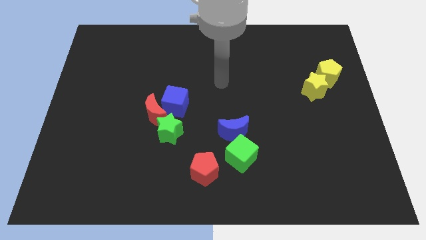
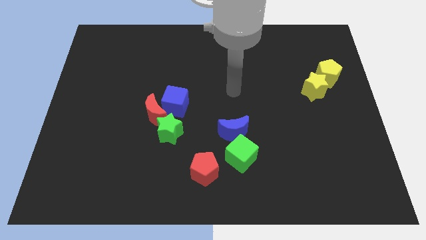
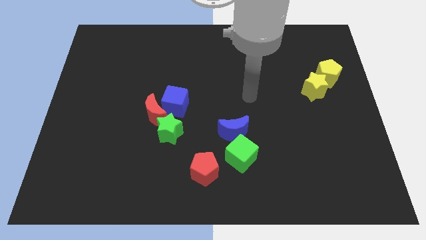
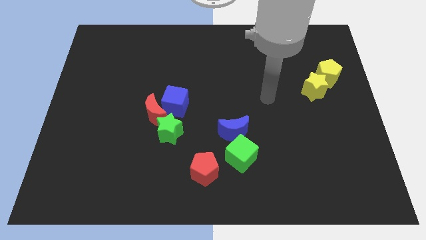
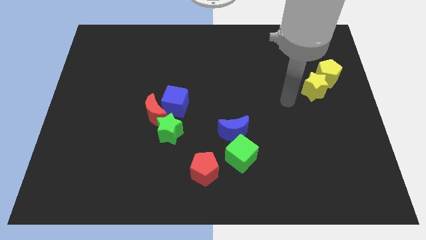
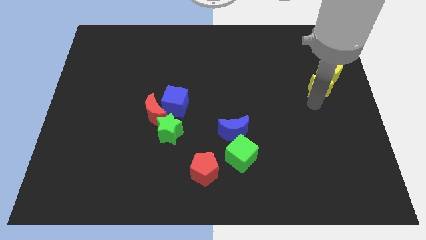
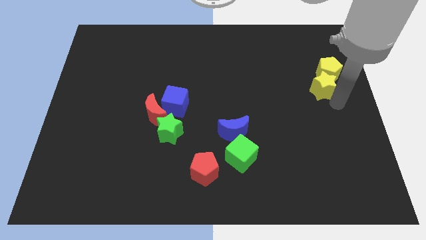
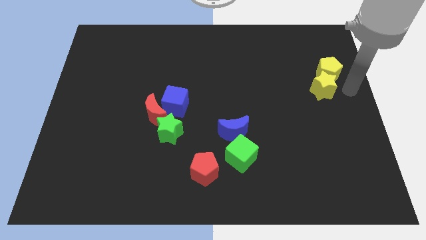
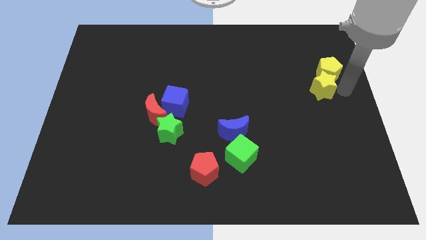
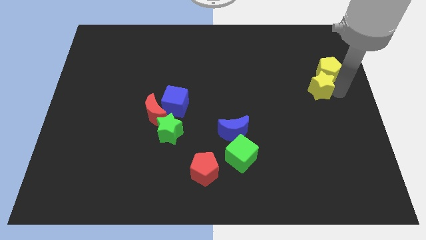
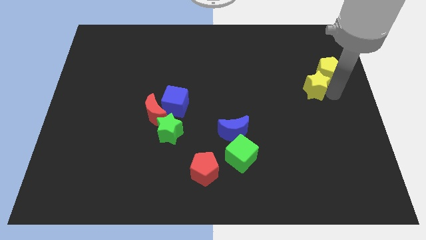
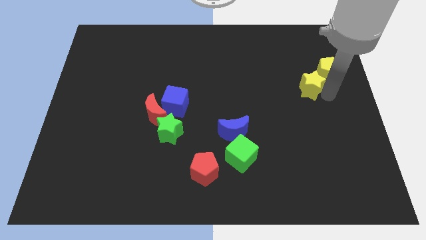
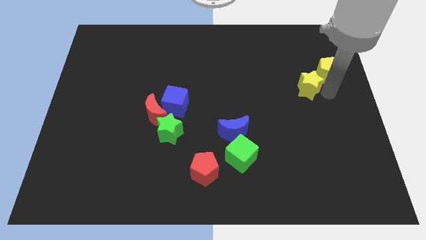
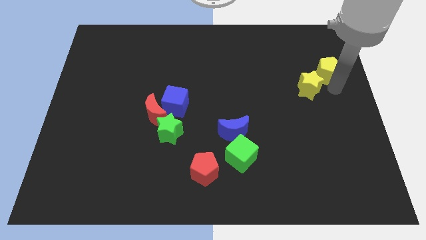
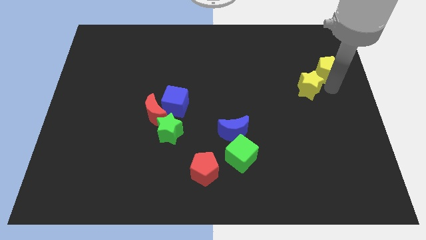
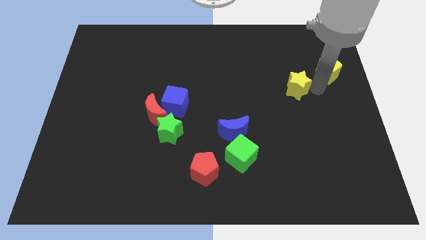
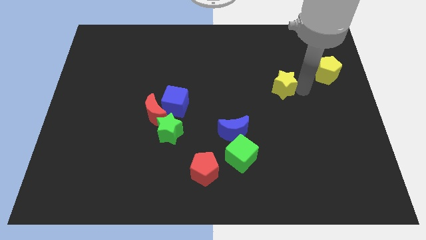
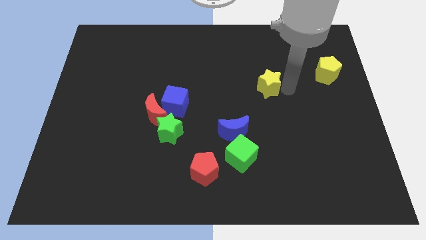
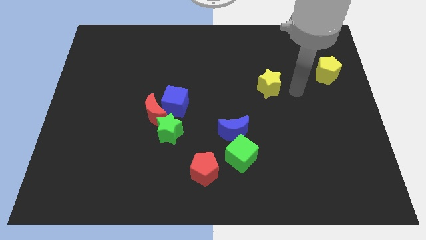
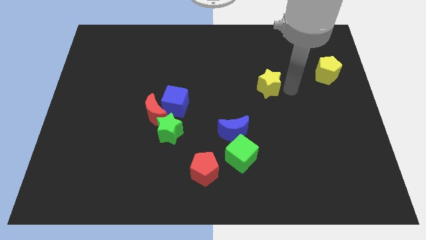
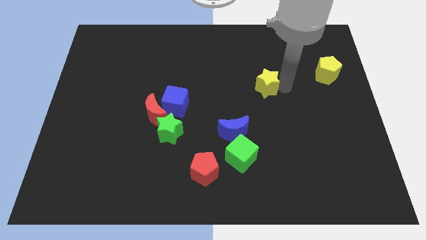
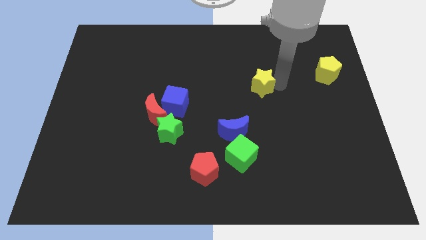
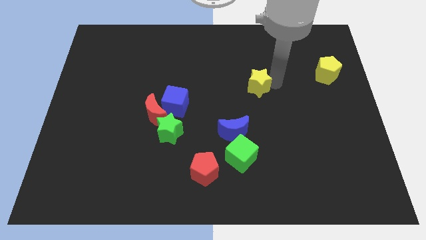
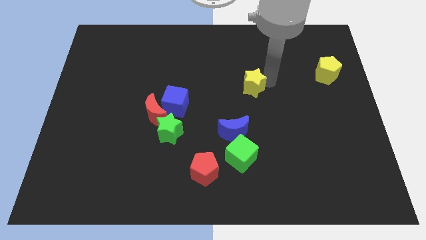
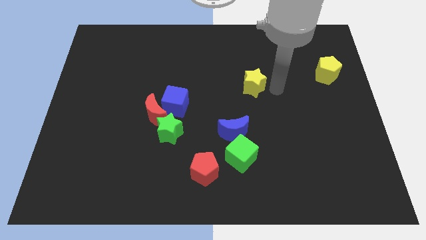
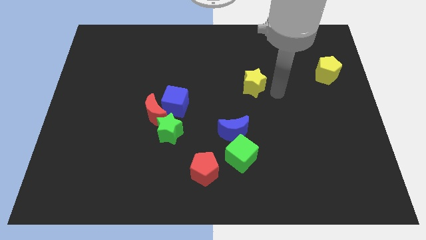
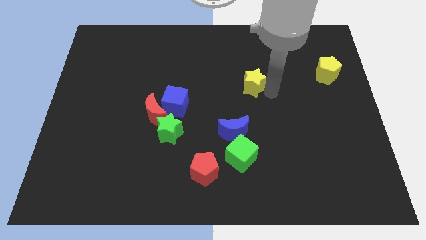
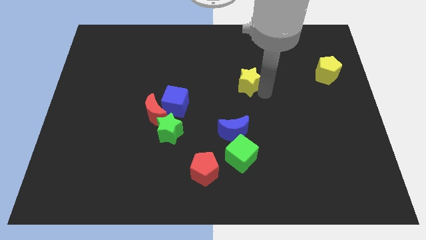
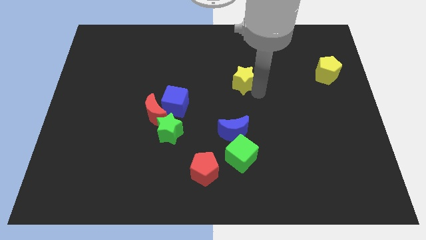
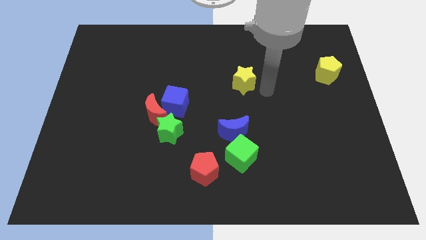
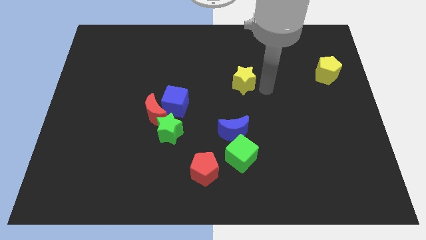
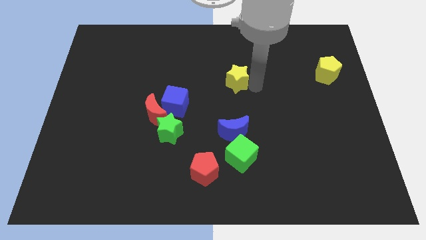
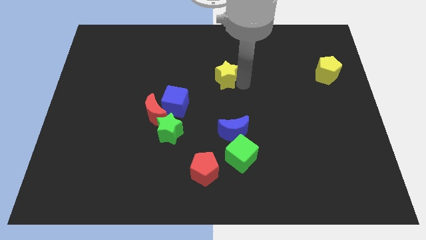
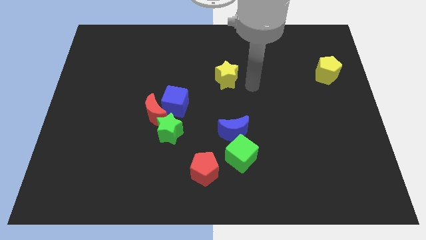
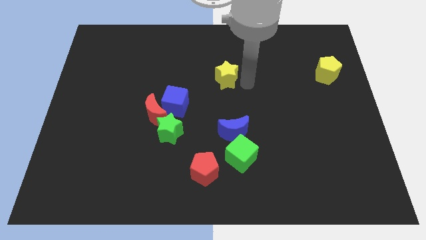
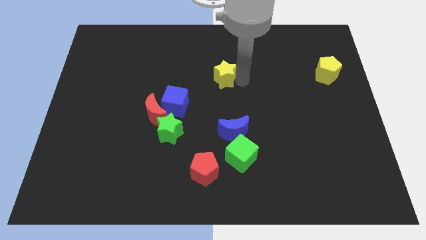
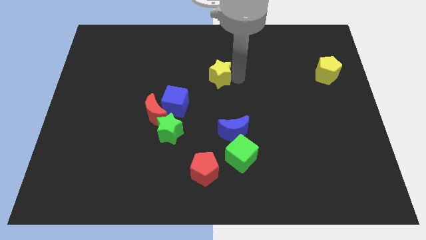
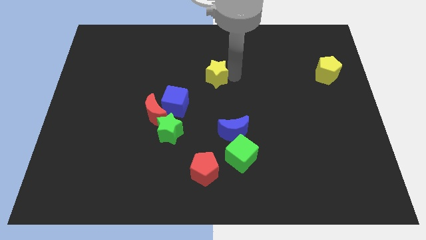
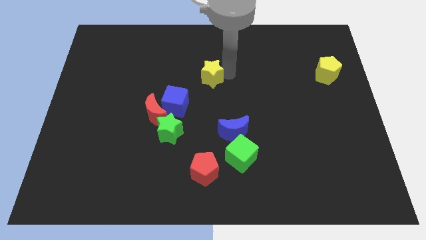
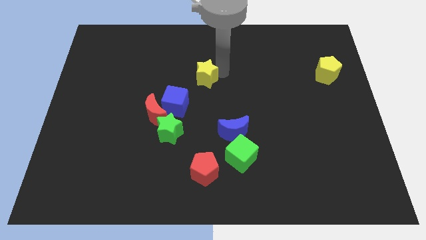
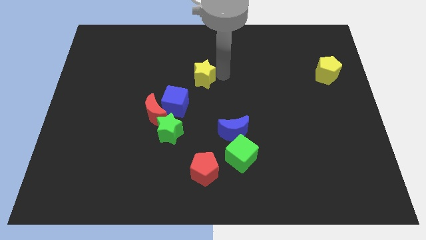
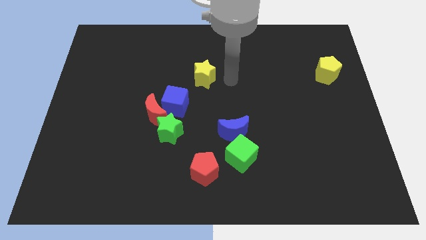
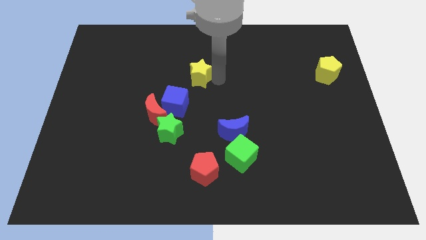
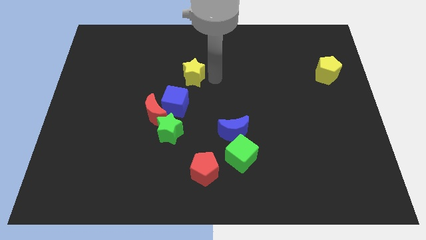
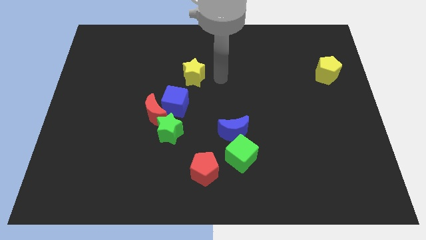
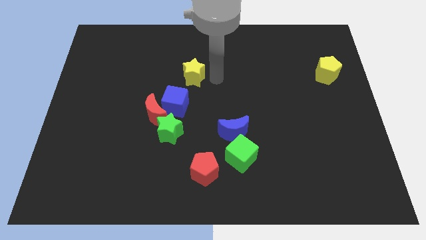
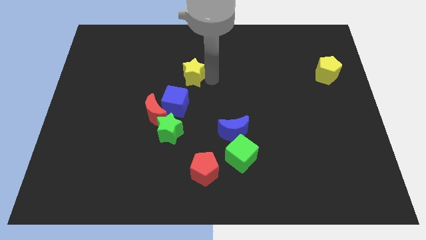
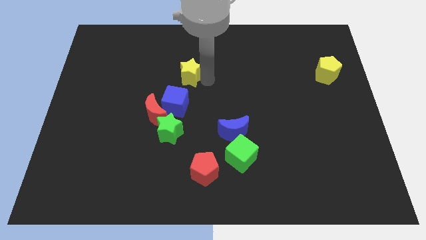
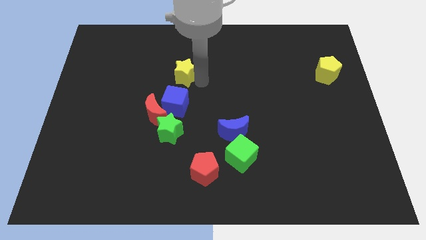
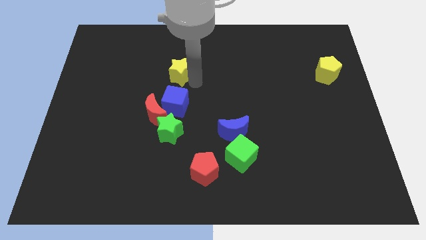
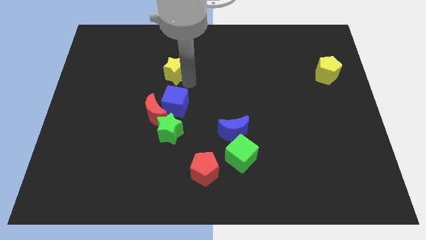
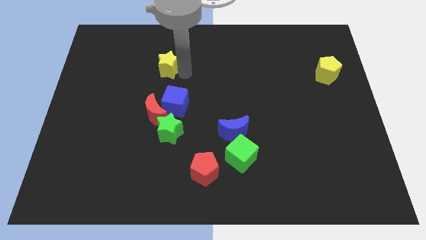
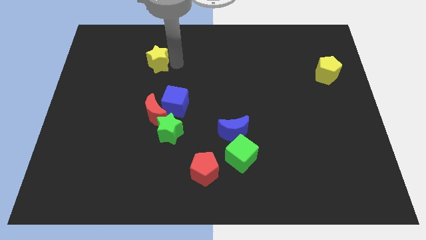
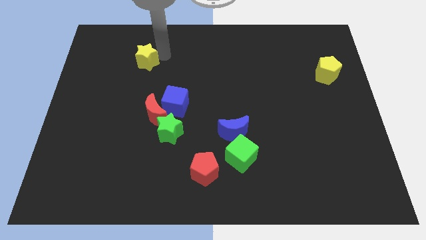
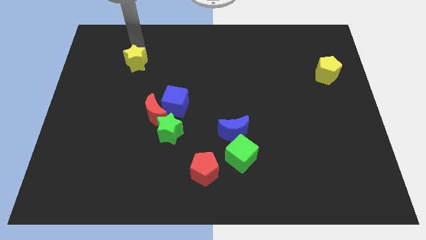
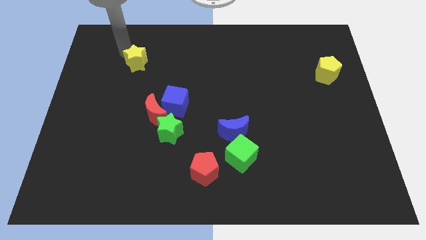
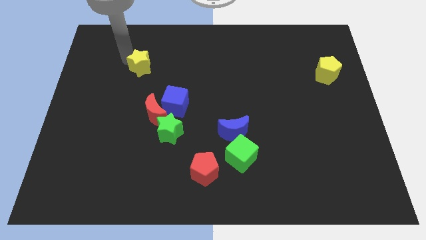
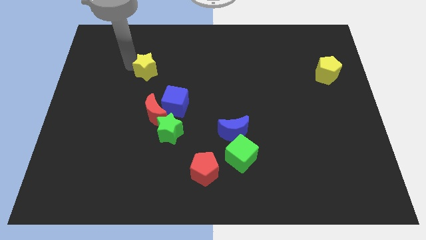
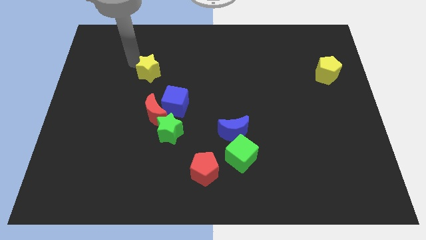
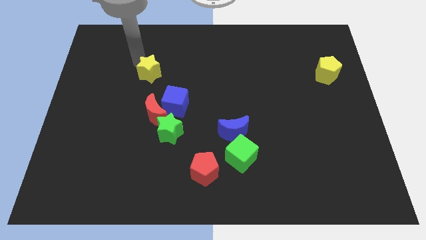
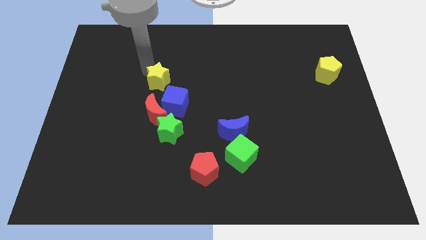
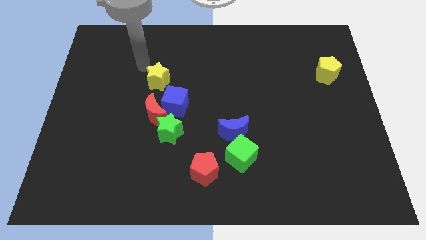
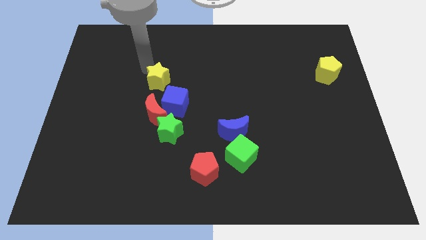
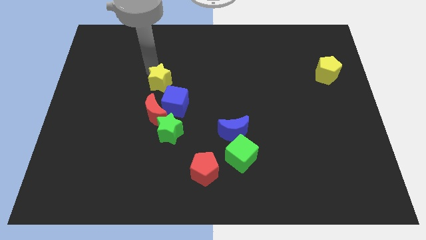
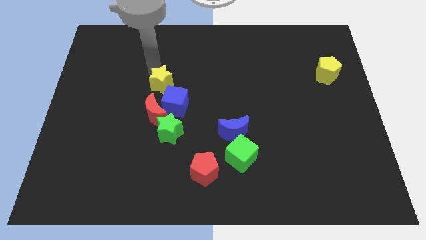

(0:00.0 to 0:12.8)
slide the yellow star above the green star

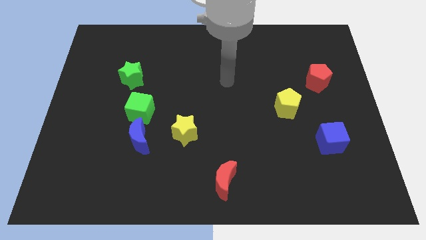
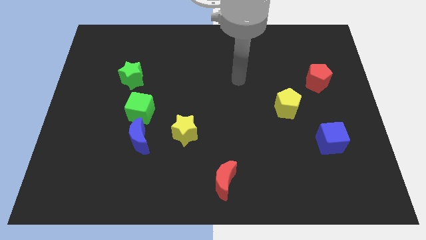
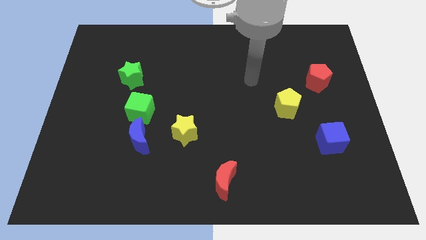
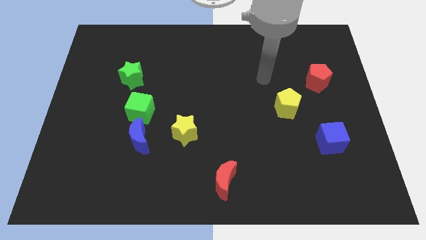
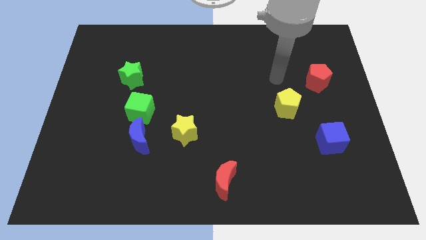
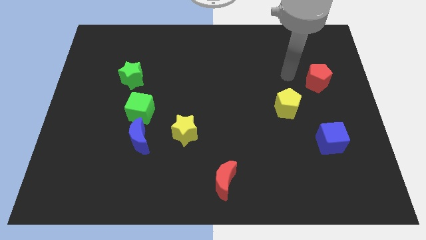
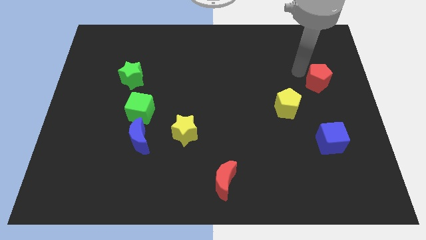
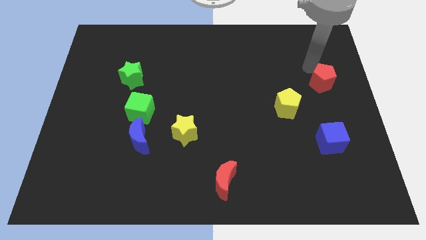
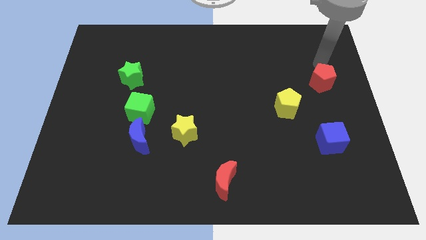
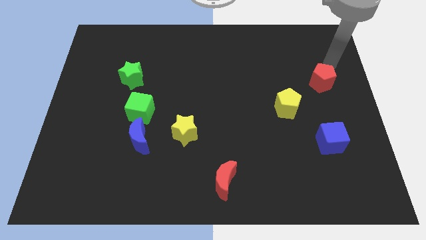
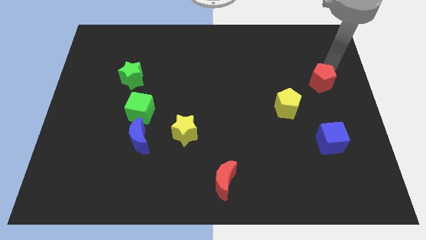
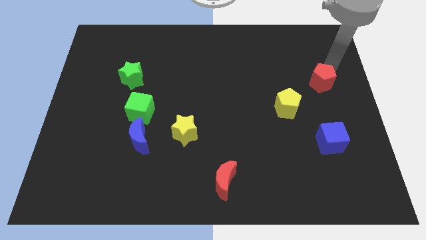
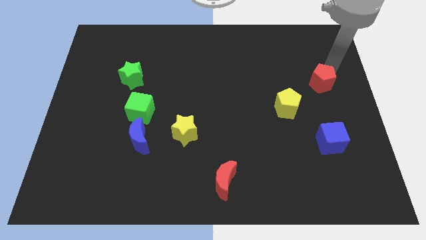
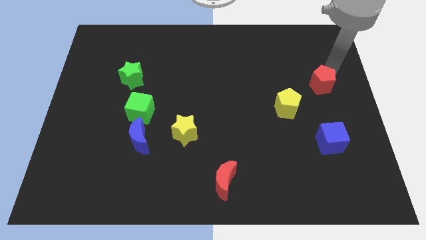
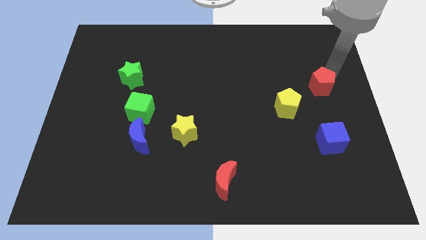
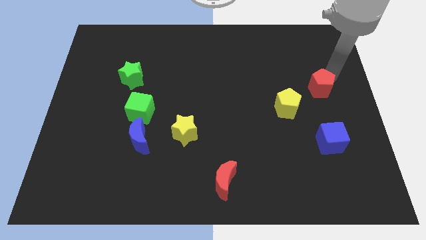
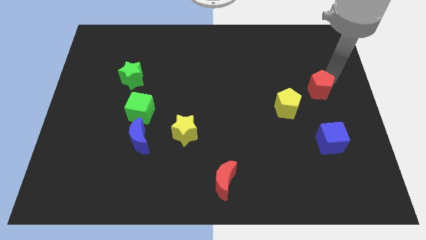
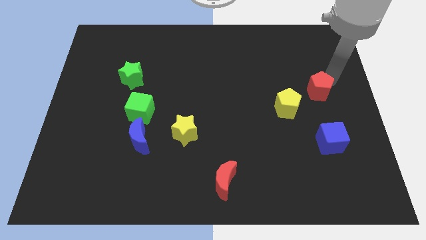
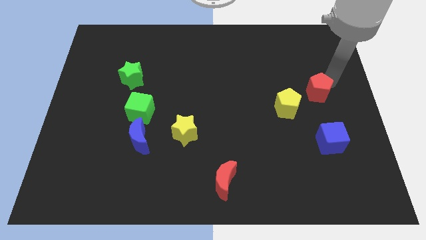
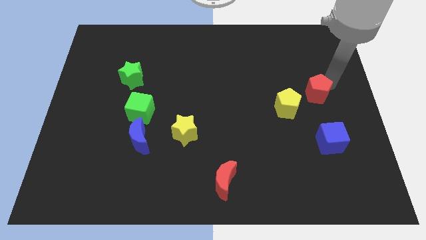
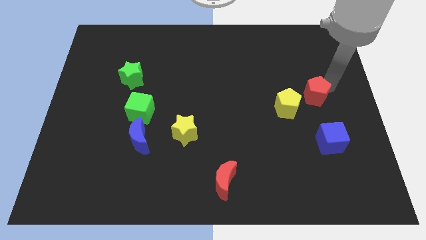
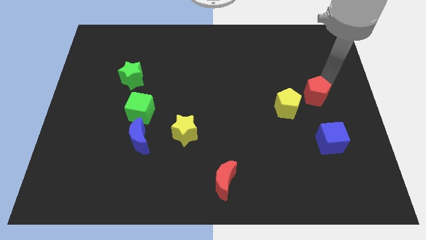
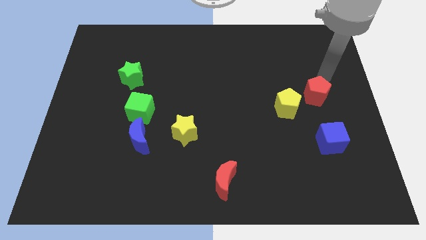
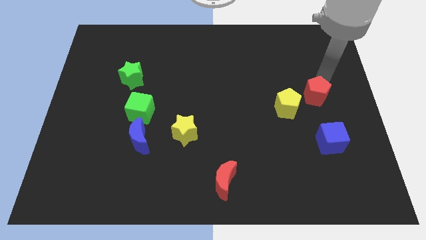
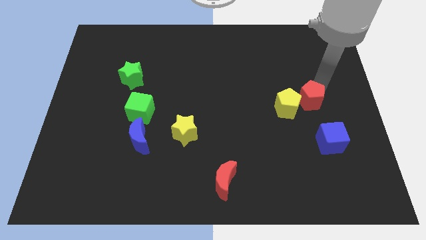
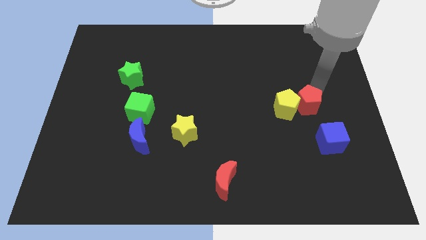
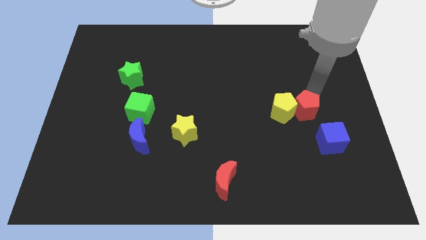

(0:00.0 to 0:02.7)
slide the red pentagon to the top left side of the blue cube
